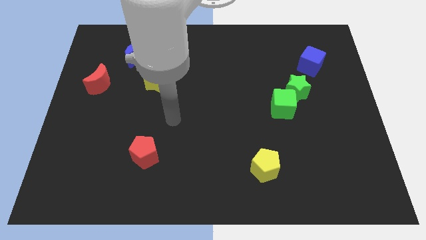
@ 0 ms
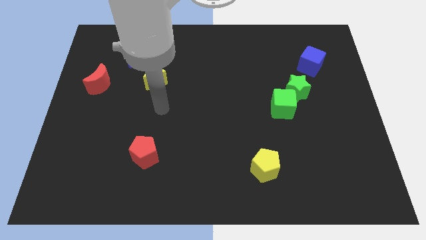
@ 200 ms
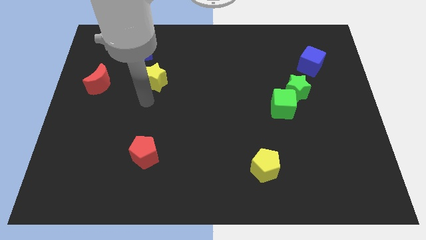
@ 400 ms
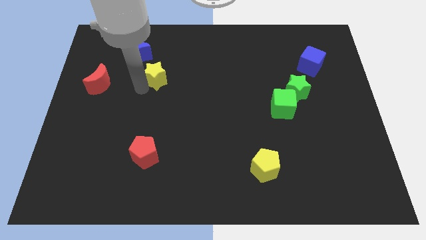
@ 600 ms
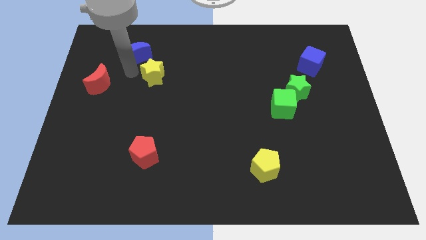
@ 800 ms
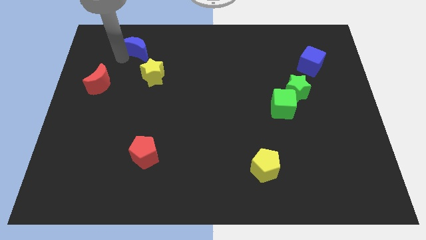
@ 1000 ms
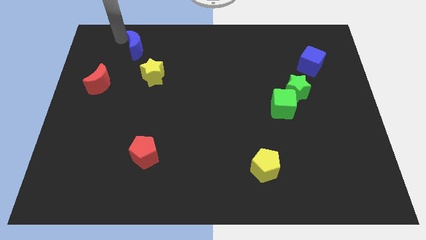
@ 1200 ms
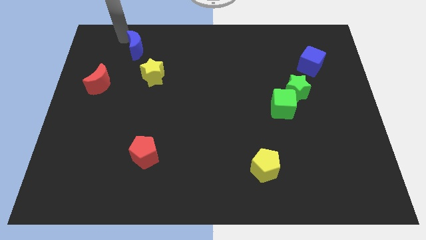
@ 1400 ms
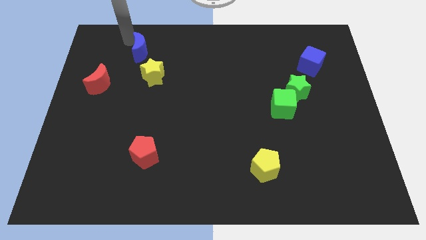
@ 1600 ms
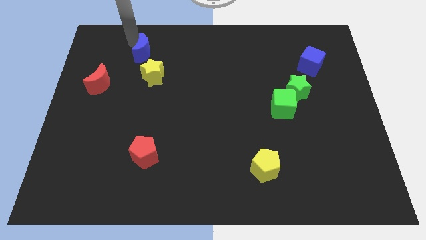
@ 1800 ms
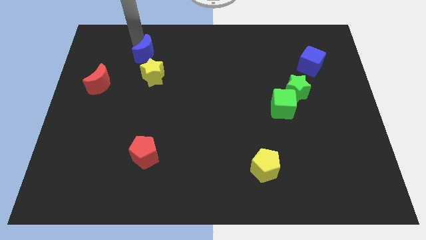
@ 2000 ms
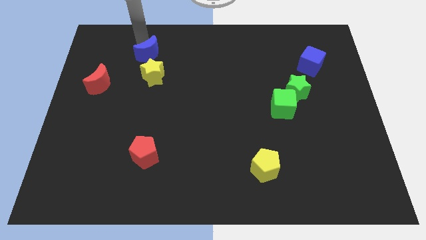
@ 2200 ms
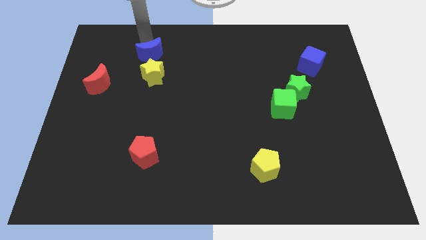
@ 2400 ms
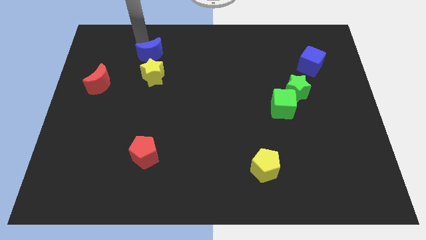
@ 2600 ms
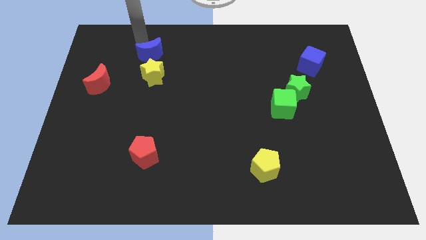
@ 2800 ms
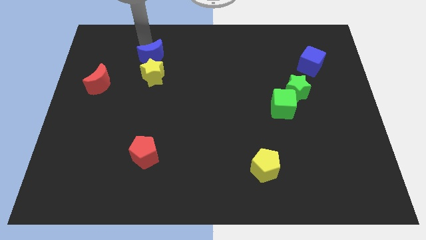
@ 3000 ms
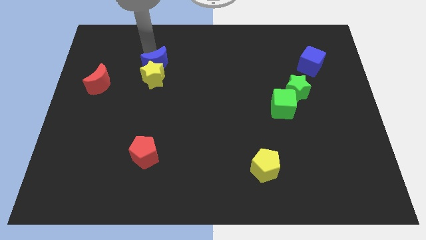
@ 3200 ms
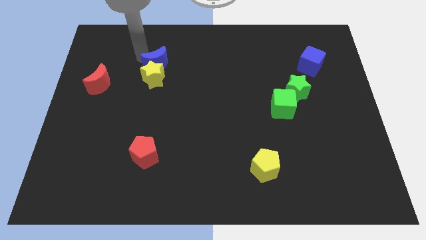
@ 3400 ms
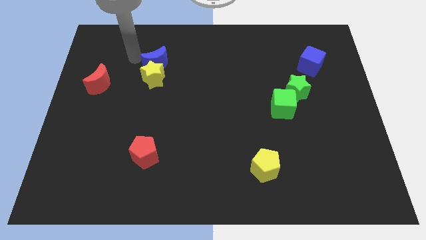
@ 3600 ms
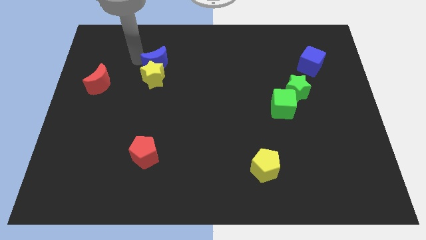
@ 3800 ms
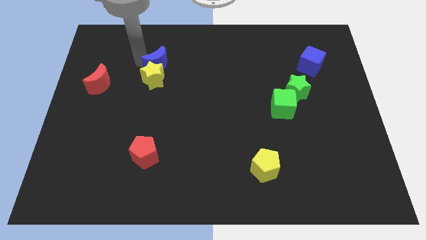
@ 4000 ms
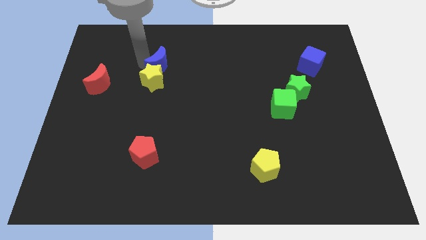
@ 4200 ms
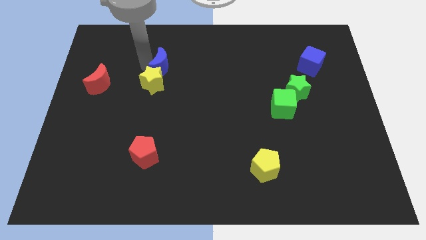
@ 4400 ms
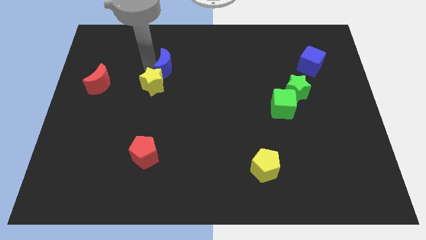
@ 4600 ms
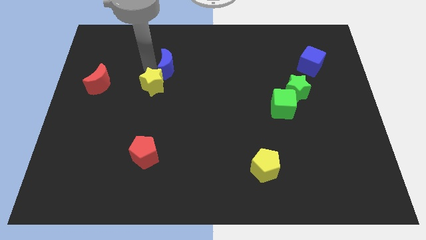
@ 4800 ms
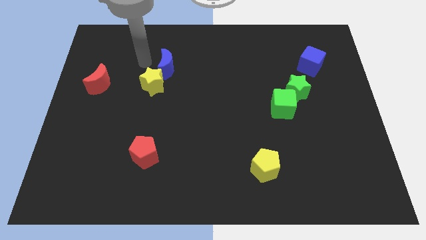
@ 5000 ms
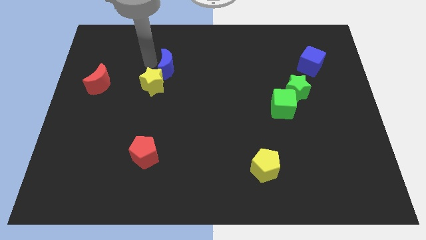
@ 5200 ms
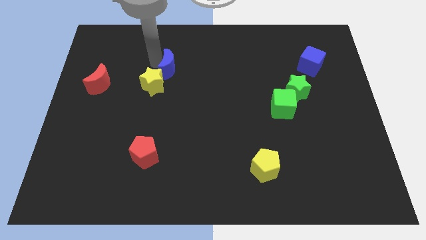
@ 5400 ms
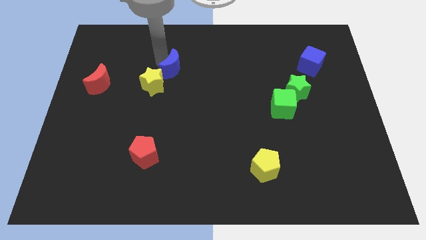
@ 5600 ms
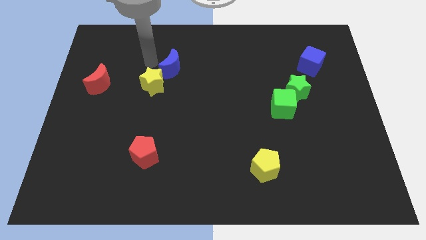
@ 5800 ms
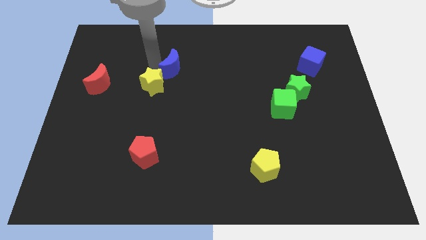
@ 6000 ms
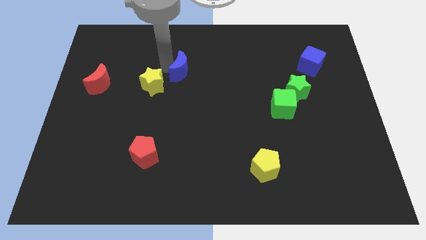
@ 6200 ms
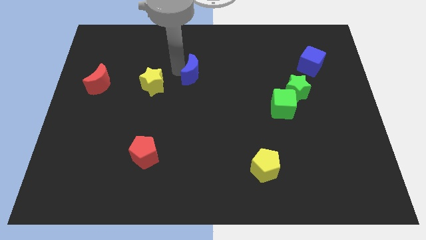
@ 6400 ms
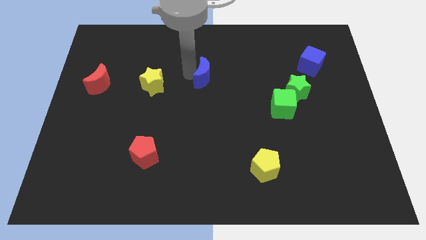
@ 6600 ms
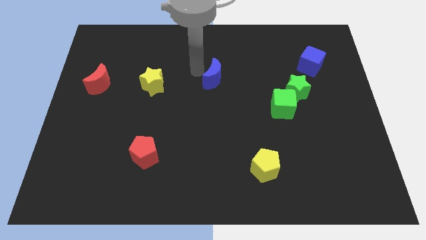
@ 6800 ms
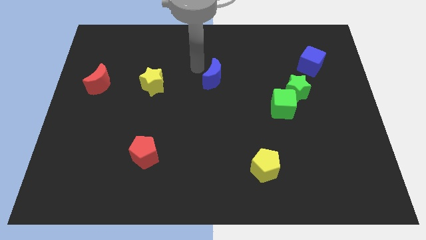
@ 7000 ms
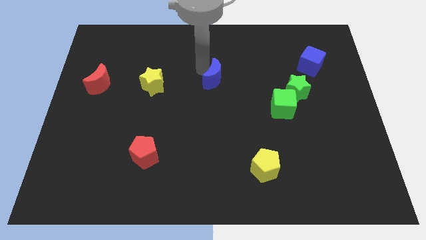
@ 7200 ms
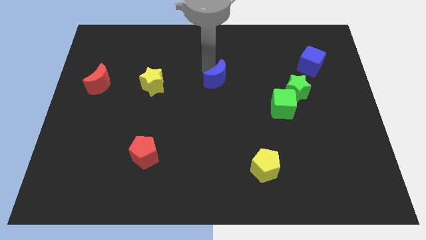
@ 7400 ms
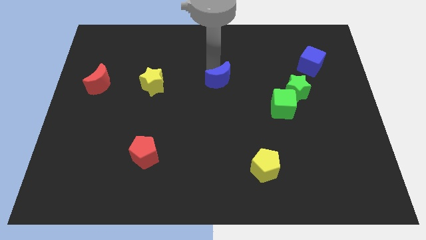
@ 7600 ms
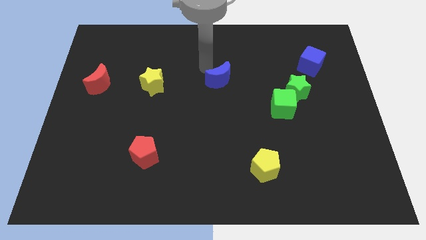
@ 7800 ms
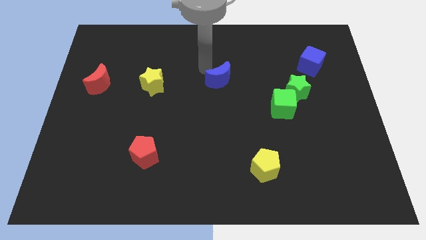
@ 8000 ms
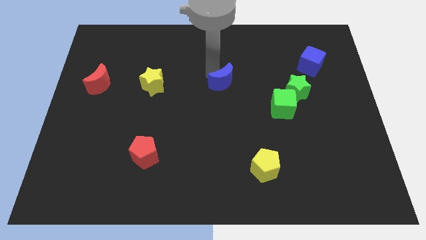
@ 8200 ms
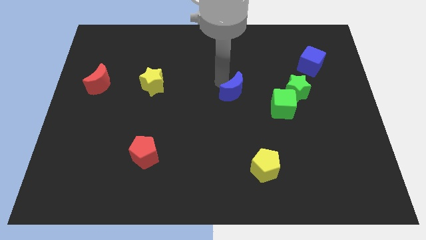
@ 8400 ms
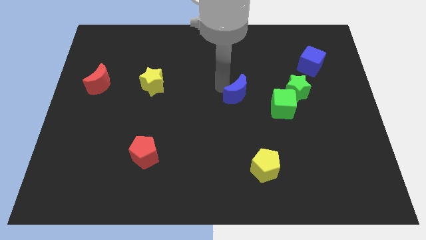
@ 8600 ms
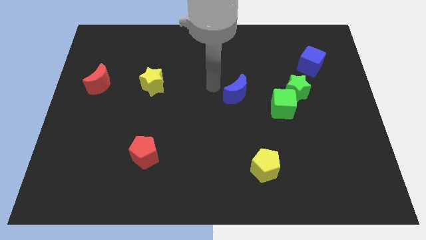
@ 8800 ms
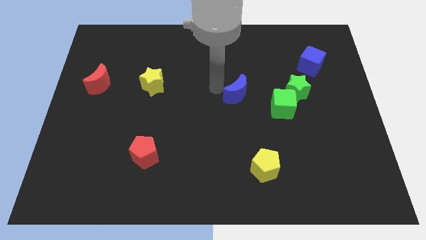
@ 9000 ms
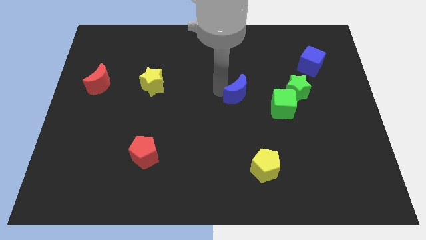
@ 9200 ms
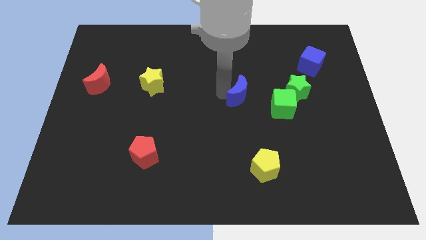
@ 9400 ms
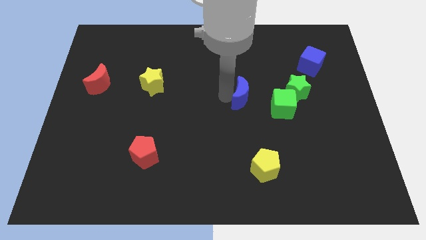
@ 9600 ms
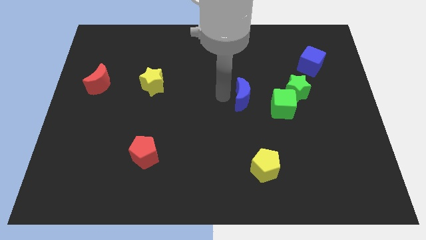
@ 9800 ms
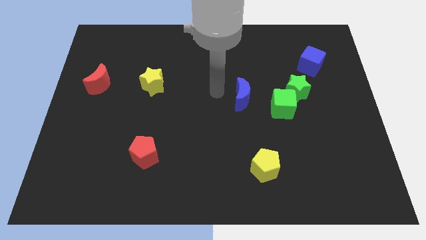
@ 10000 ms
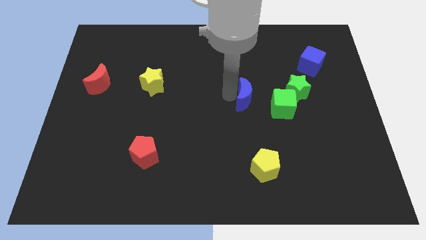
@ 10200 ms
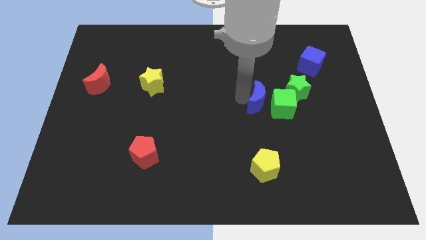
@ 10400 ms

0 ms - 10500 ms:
put the blue moon next to the green cube

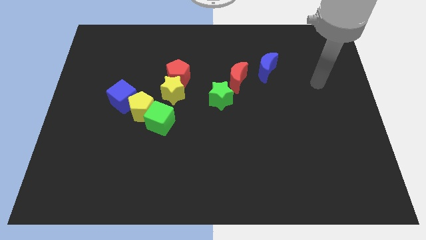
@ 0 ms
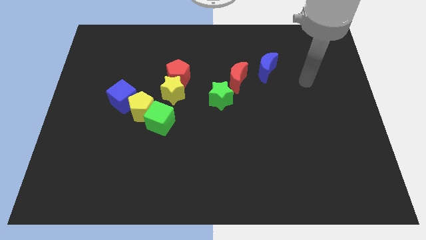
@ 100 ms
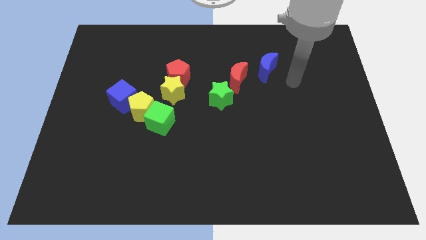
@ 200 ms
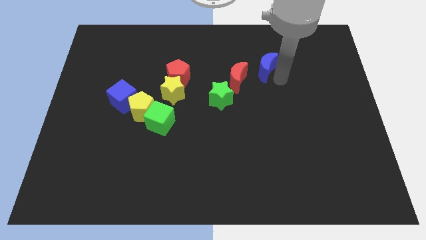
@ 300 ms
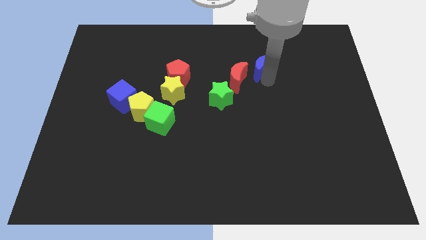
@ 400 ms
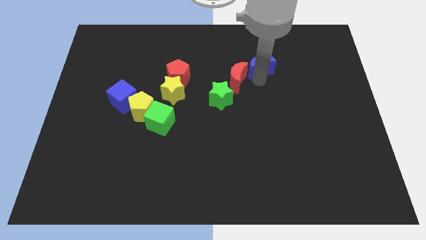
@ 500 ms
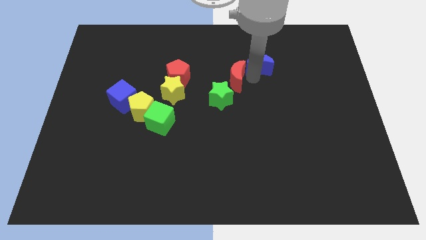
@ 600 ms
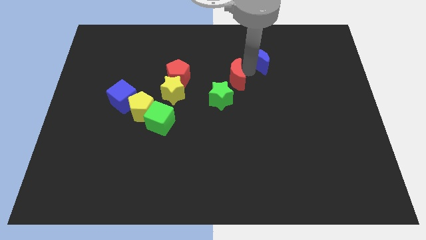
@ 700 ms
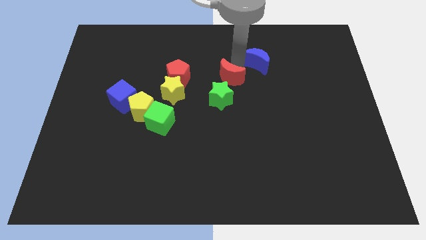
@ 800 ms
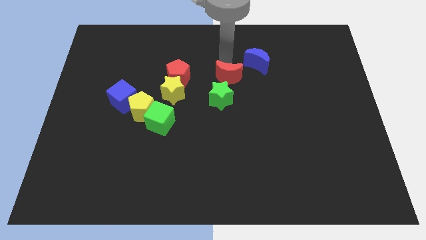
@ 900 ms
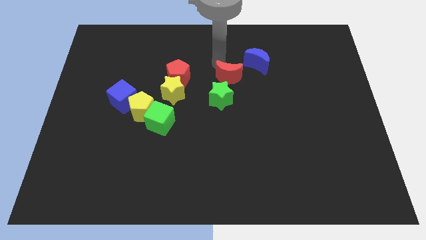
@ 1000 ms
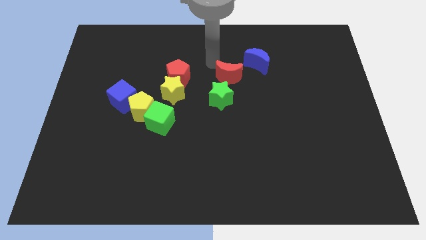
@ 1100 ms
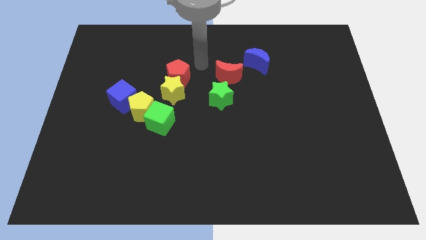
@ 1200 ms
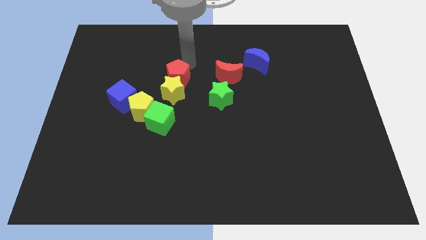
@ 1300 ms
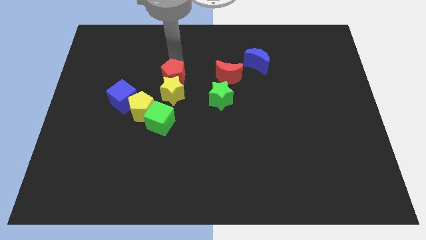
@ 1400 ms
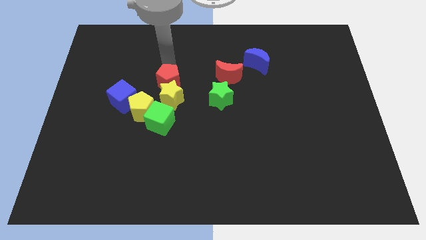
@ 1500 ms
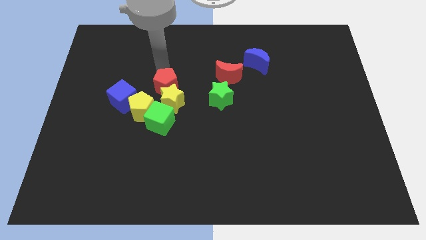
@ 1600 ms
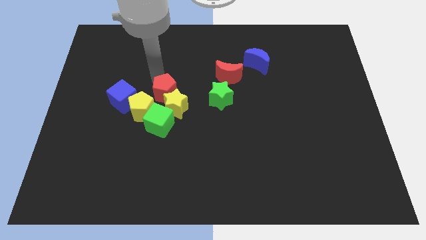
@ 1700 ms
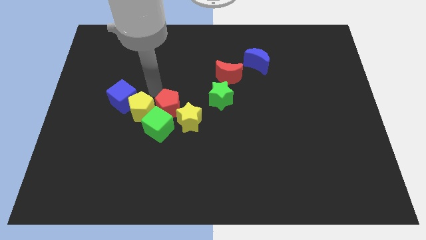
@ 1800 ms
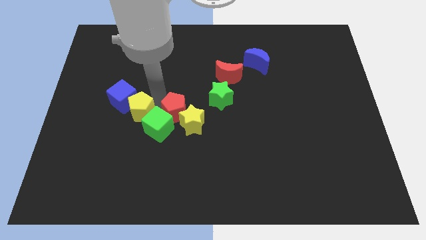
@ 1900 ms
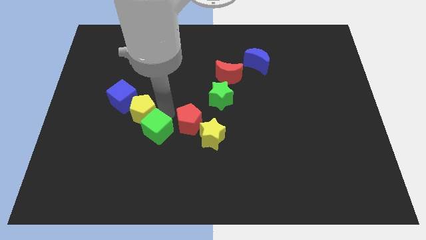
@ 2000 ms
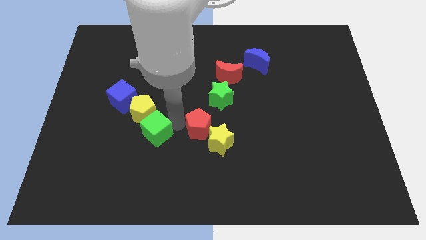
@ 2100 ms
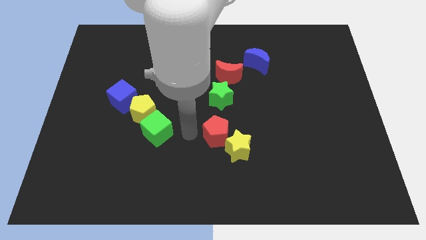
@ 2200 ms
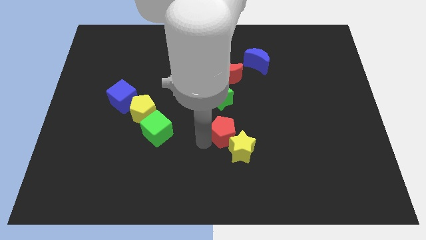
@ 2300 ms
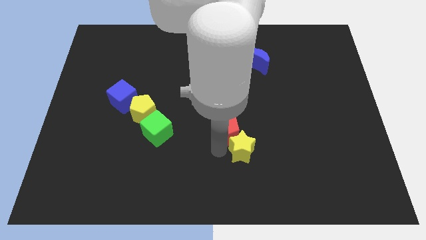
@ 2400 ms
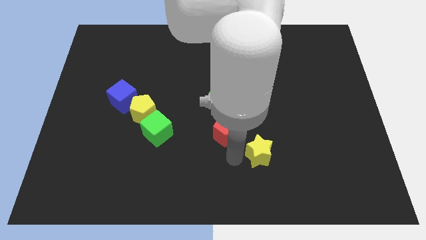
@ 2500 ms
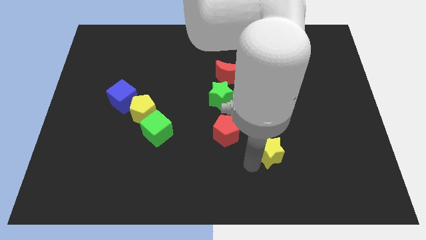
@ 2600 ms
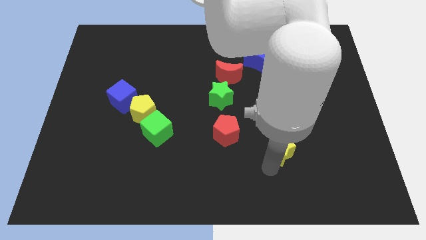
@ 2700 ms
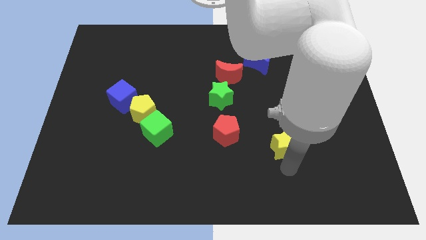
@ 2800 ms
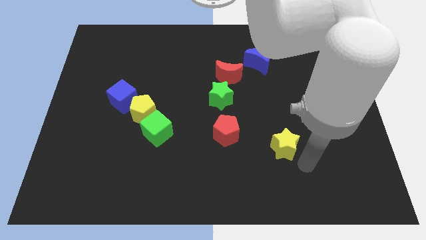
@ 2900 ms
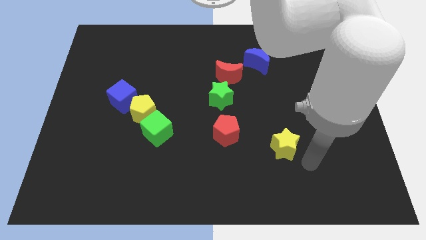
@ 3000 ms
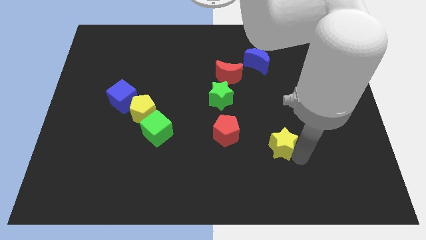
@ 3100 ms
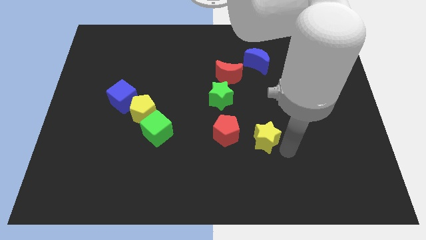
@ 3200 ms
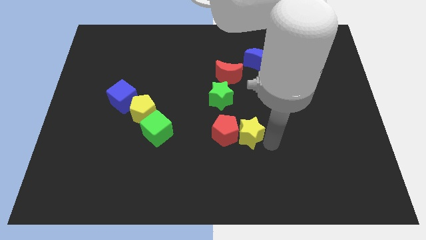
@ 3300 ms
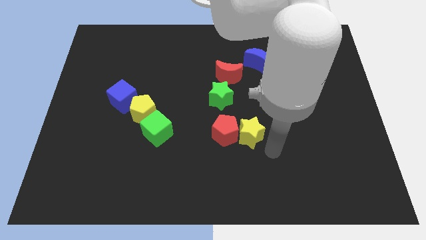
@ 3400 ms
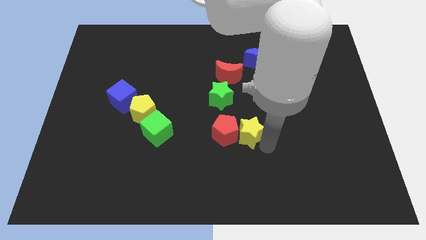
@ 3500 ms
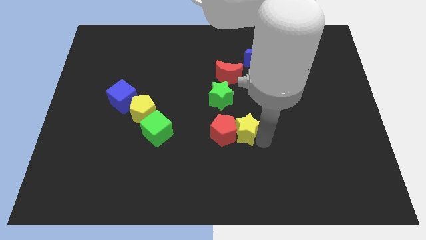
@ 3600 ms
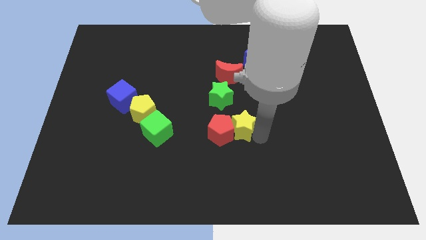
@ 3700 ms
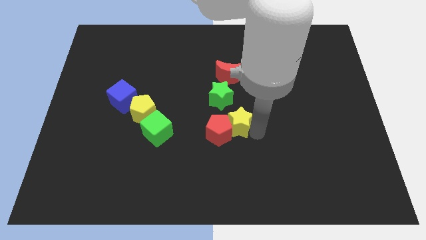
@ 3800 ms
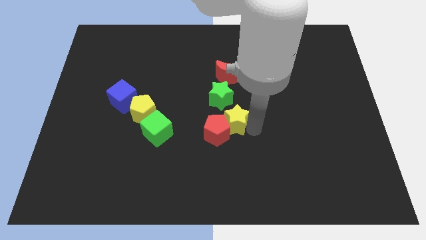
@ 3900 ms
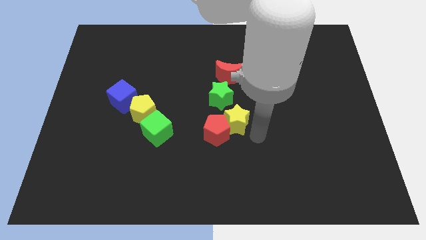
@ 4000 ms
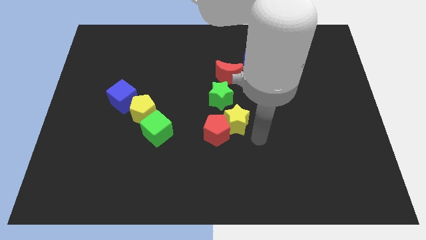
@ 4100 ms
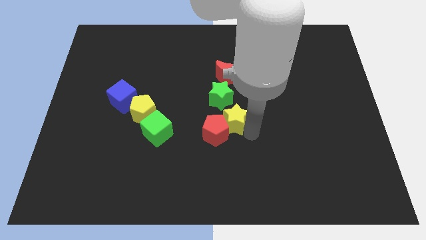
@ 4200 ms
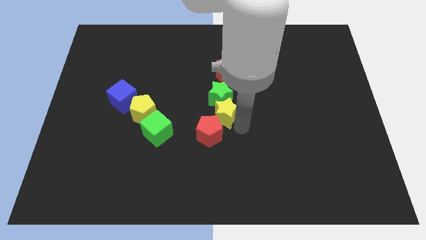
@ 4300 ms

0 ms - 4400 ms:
move the yellow star to the green star
